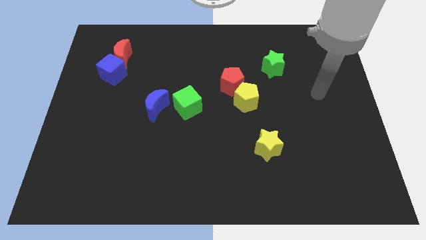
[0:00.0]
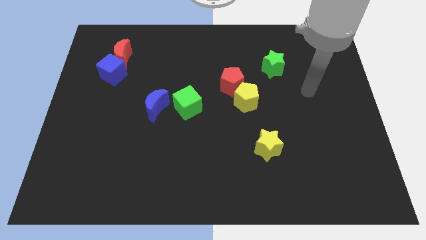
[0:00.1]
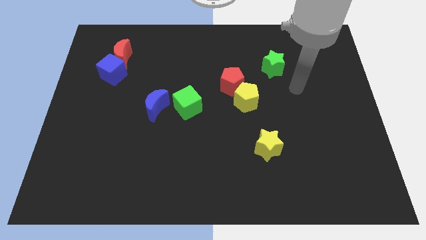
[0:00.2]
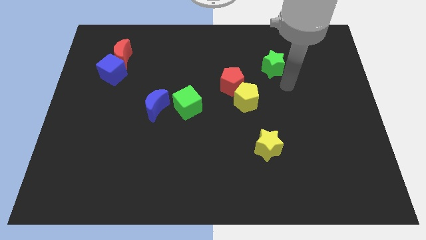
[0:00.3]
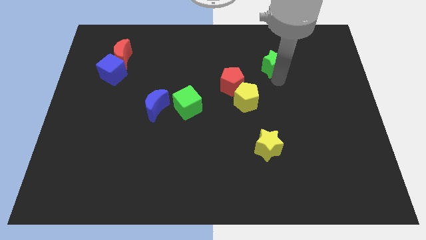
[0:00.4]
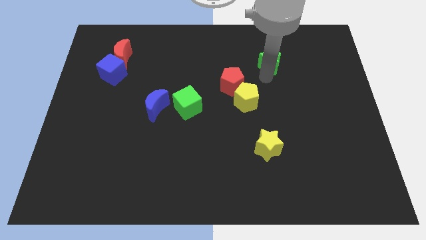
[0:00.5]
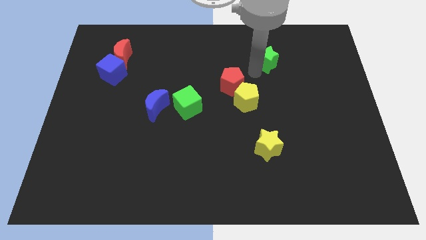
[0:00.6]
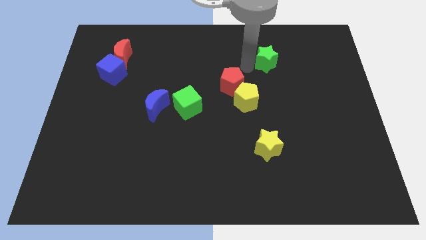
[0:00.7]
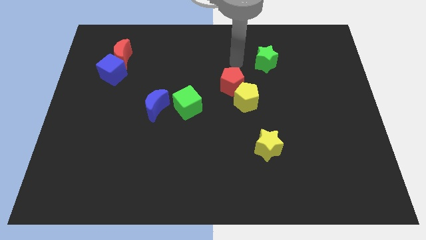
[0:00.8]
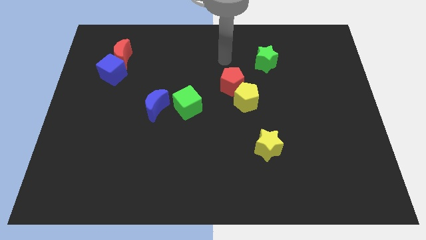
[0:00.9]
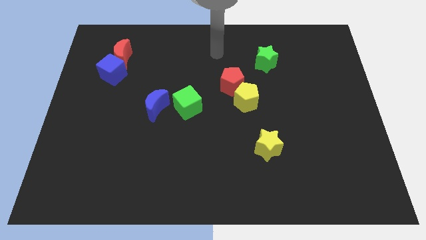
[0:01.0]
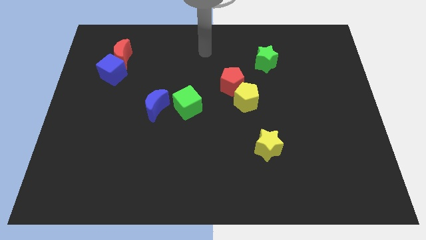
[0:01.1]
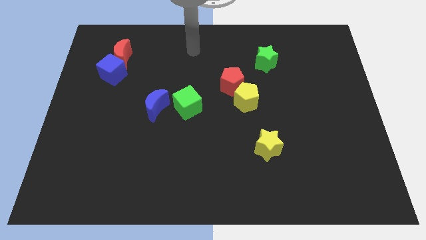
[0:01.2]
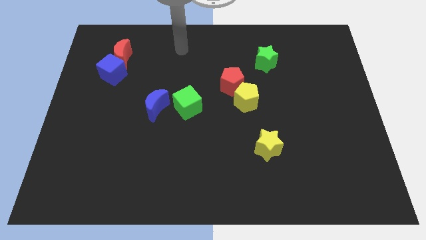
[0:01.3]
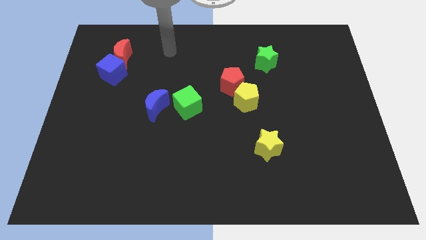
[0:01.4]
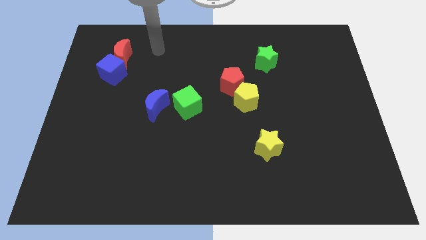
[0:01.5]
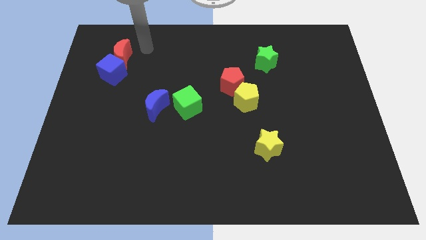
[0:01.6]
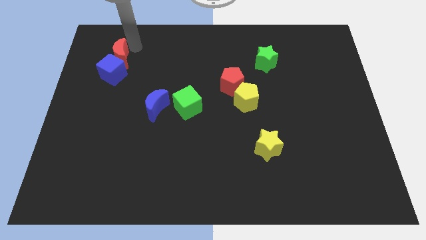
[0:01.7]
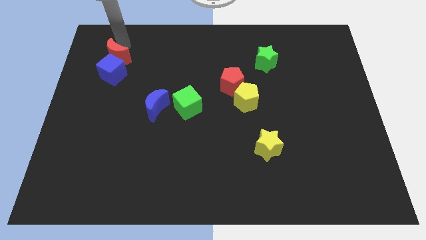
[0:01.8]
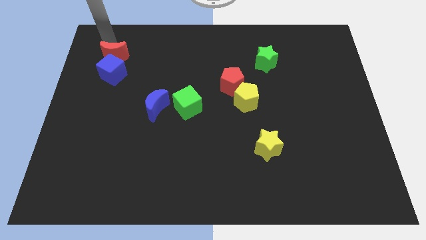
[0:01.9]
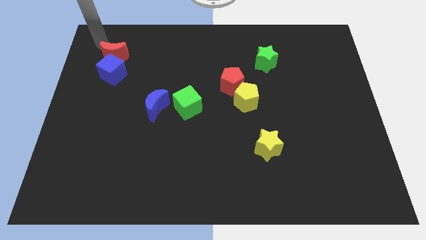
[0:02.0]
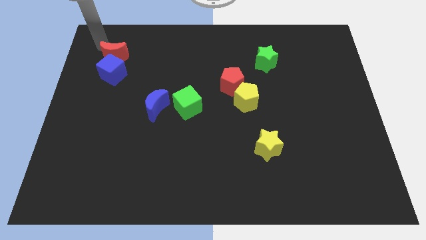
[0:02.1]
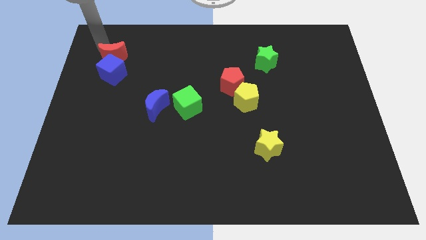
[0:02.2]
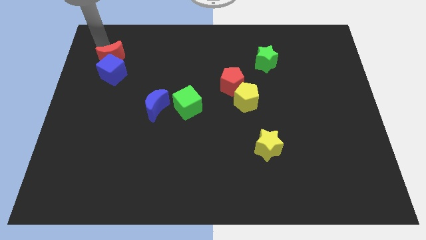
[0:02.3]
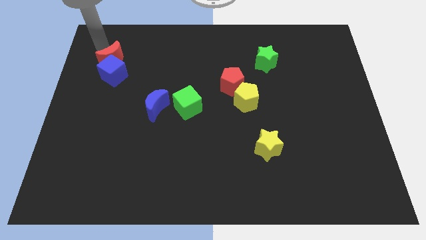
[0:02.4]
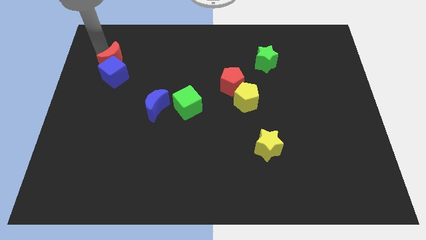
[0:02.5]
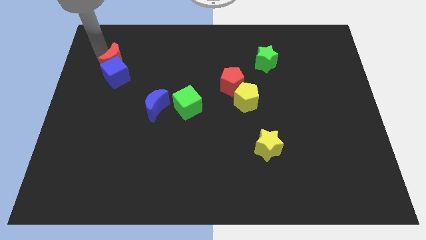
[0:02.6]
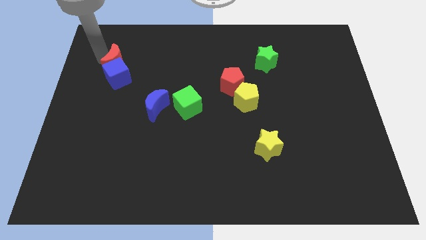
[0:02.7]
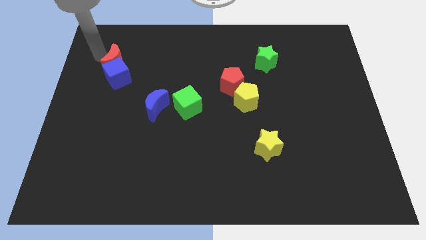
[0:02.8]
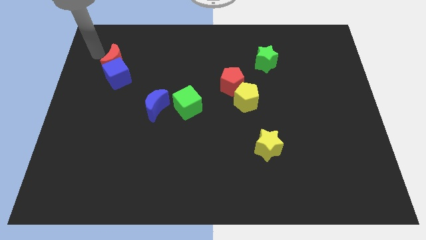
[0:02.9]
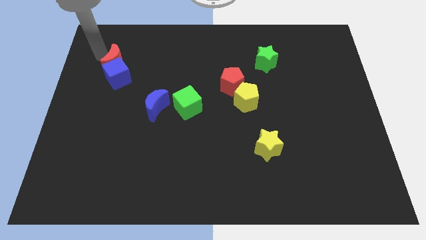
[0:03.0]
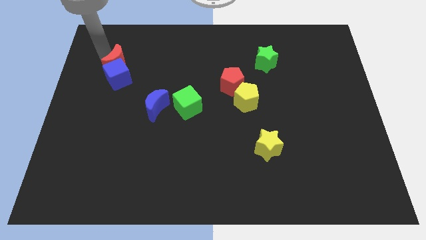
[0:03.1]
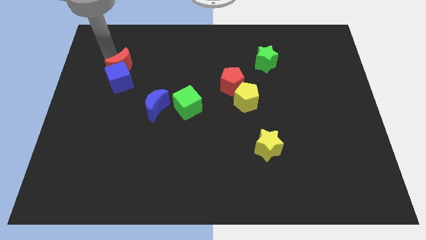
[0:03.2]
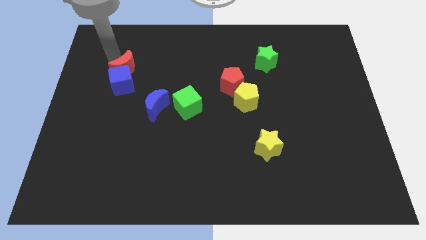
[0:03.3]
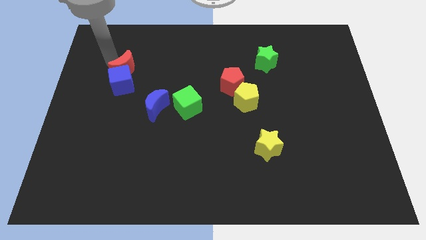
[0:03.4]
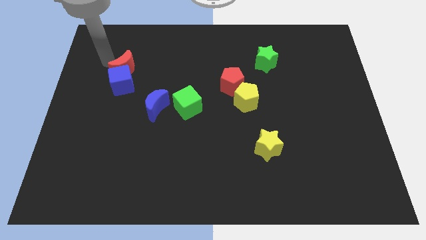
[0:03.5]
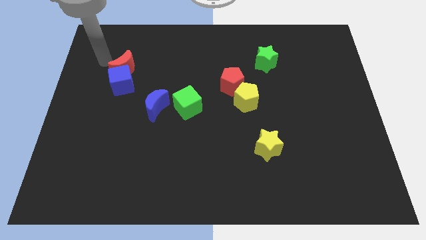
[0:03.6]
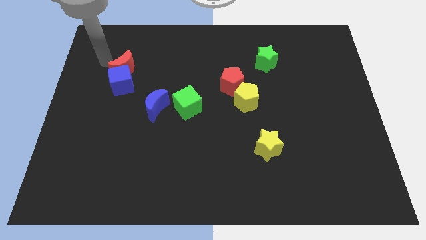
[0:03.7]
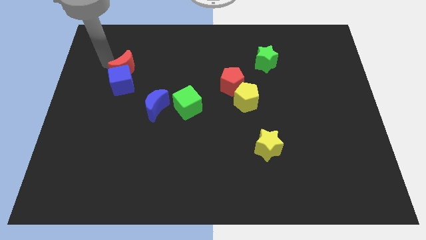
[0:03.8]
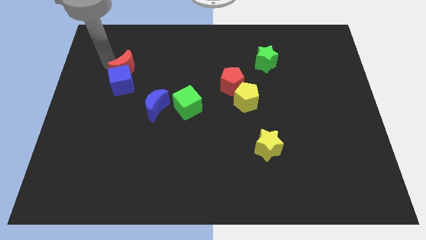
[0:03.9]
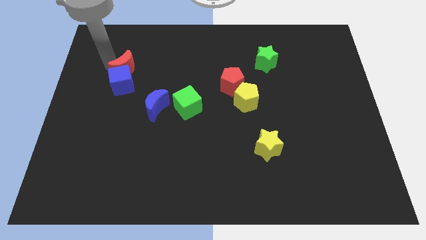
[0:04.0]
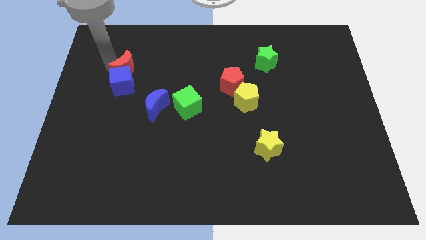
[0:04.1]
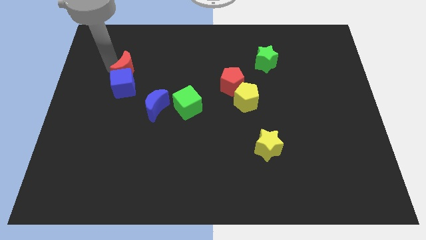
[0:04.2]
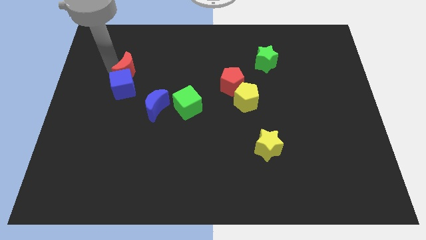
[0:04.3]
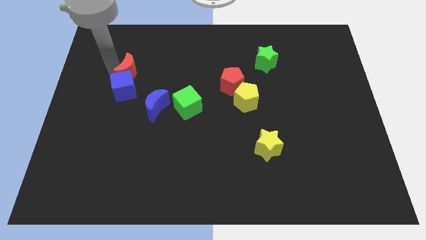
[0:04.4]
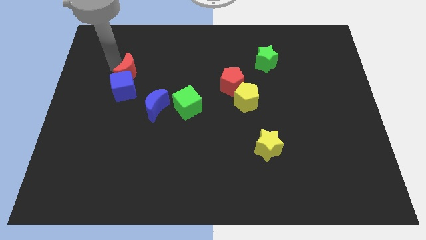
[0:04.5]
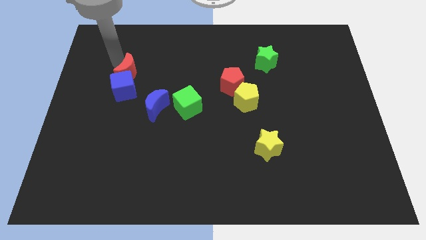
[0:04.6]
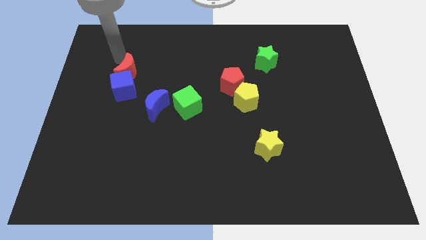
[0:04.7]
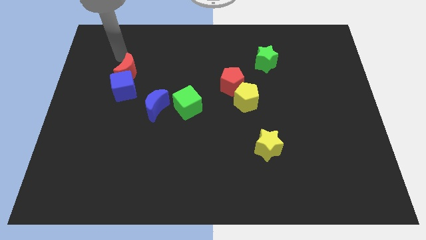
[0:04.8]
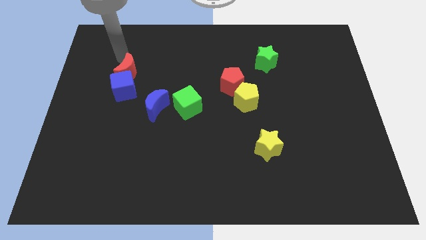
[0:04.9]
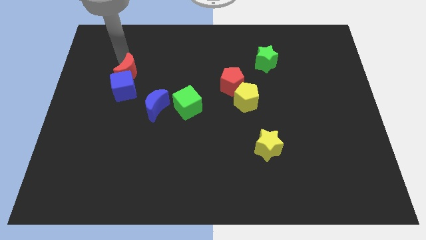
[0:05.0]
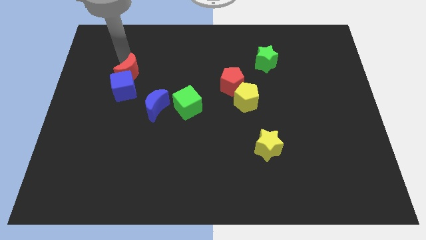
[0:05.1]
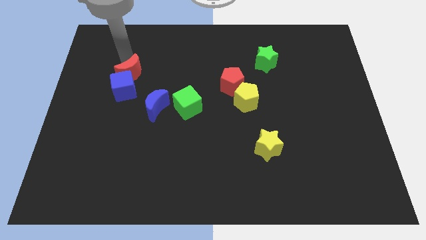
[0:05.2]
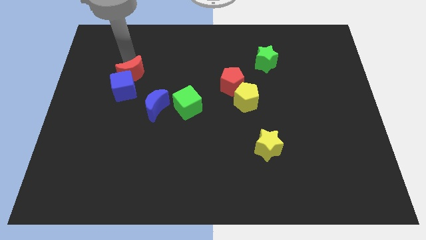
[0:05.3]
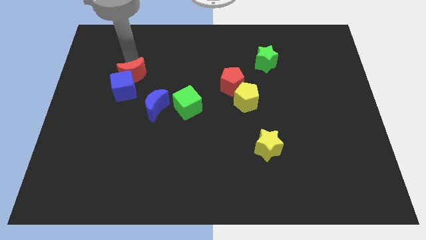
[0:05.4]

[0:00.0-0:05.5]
move the red moon to the top left side of the blue moon

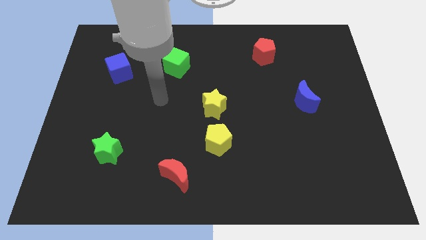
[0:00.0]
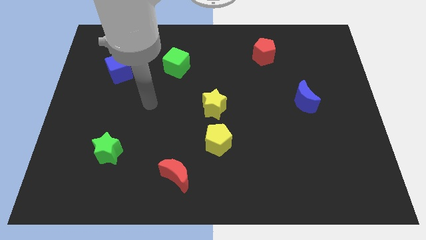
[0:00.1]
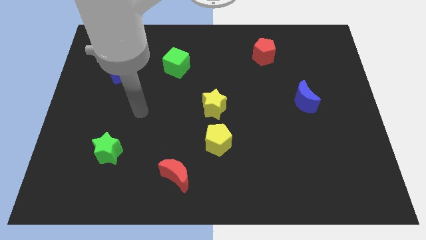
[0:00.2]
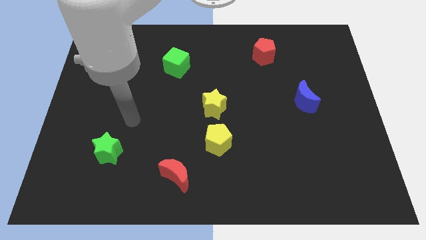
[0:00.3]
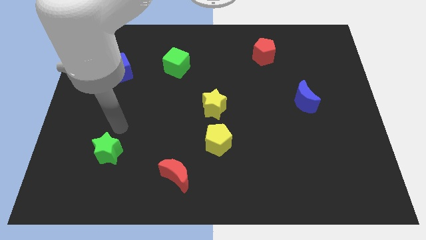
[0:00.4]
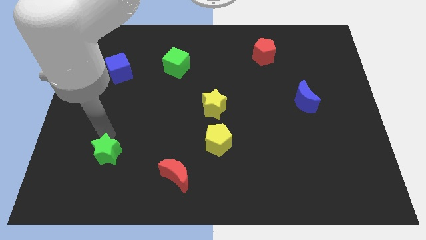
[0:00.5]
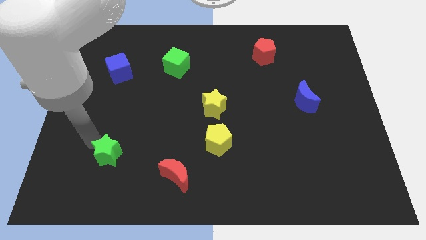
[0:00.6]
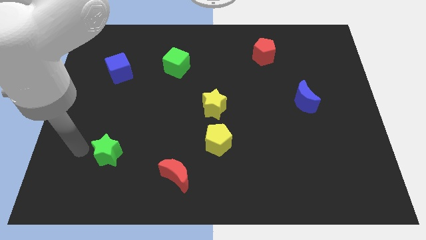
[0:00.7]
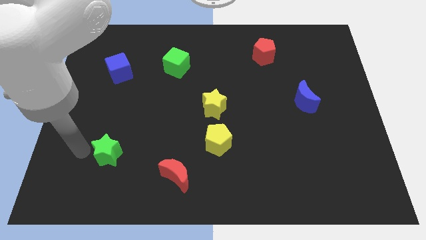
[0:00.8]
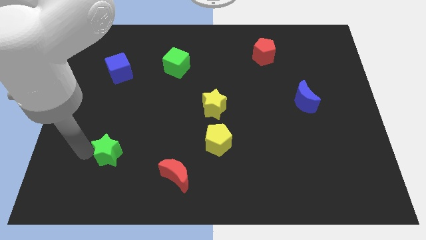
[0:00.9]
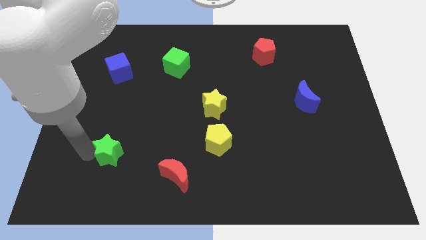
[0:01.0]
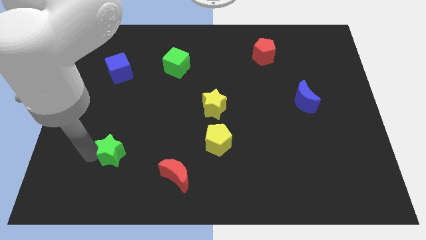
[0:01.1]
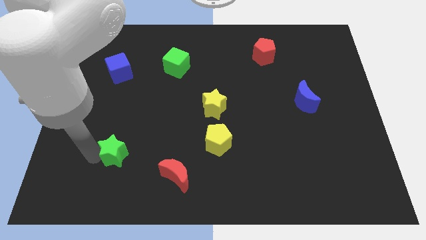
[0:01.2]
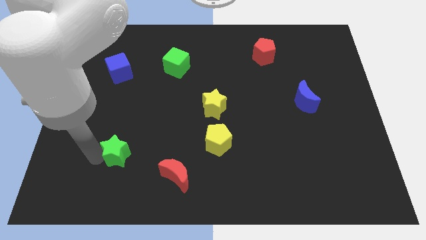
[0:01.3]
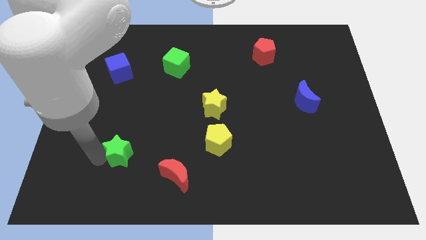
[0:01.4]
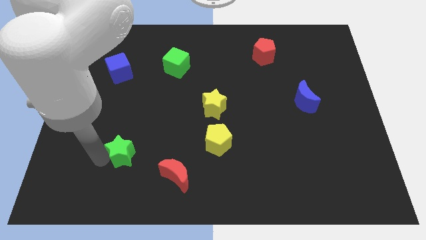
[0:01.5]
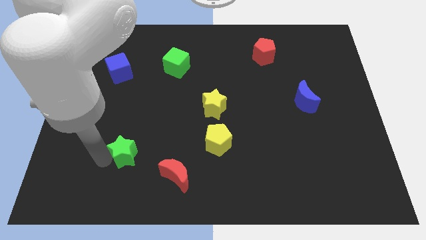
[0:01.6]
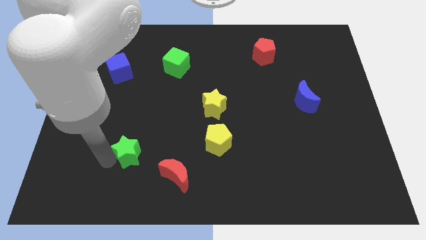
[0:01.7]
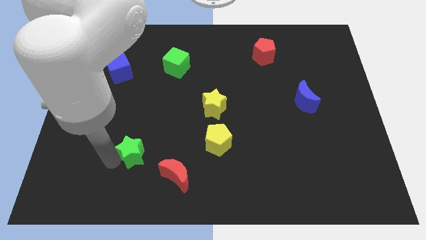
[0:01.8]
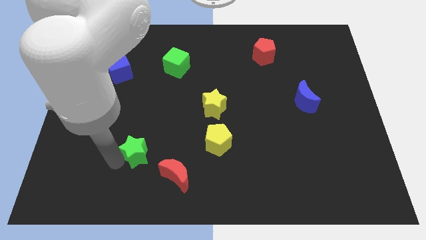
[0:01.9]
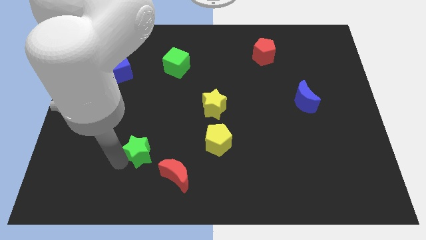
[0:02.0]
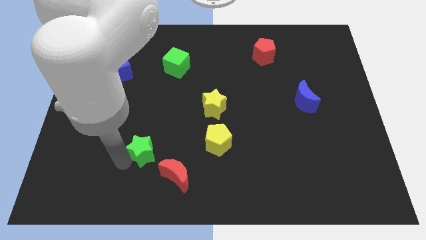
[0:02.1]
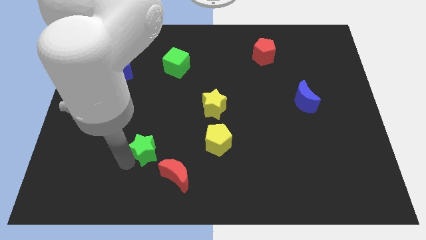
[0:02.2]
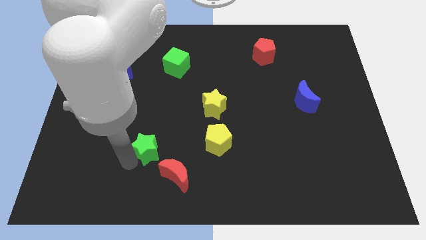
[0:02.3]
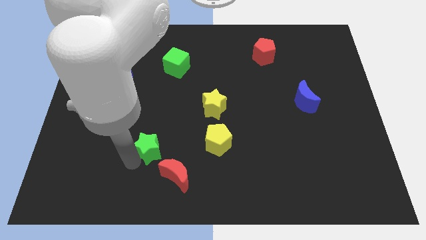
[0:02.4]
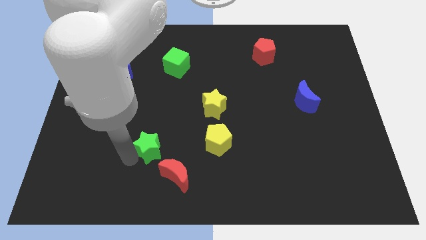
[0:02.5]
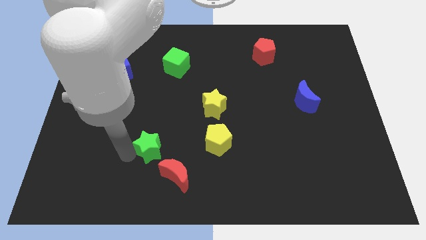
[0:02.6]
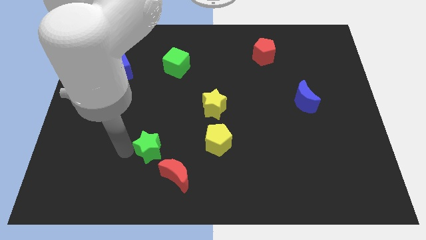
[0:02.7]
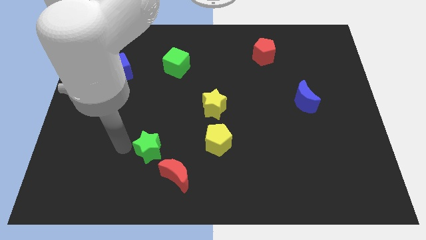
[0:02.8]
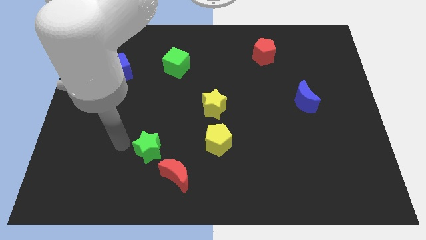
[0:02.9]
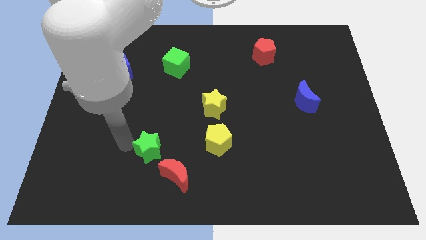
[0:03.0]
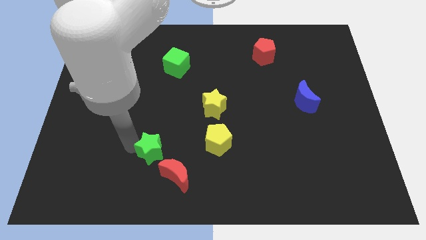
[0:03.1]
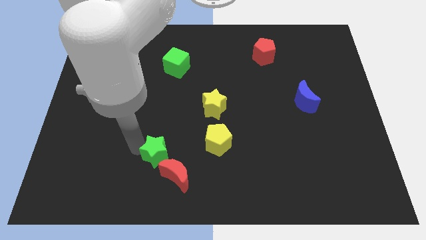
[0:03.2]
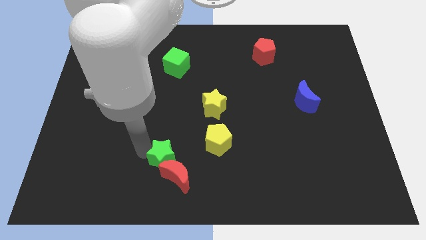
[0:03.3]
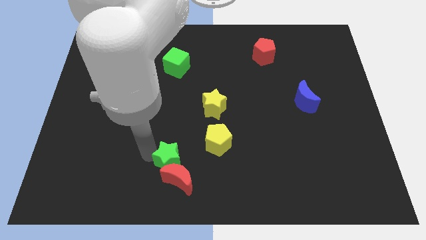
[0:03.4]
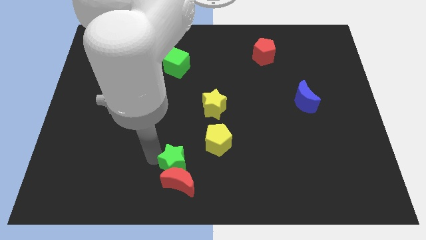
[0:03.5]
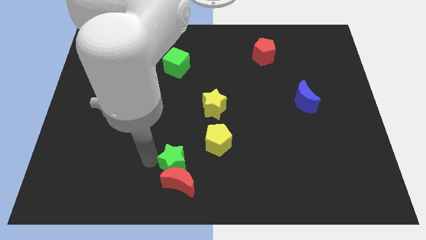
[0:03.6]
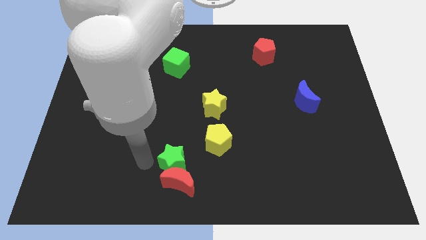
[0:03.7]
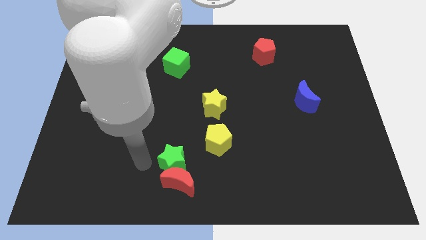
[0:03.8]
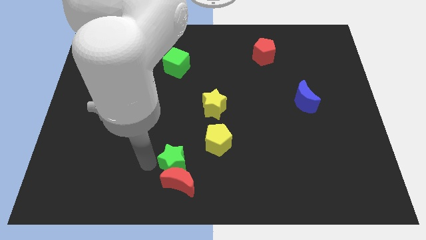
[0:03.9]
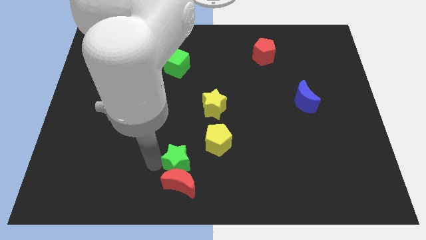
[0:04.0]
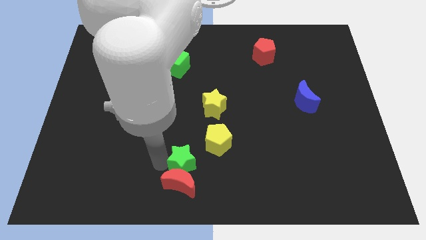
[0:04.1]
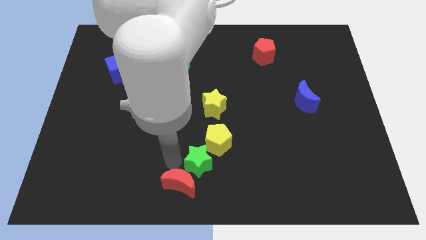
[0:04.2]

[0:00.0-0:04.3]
move the green star right of the red moon
